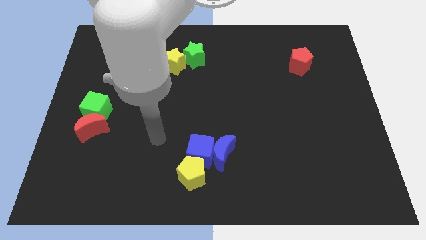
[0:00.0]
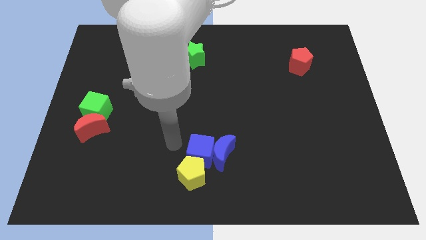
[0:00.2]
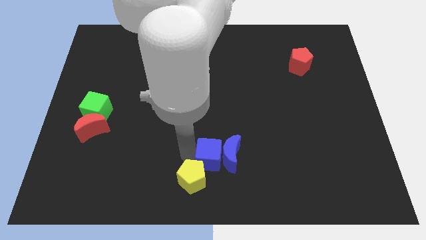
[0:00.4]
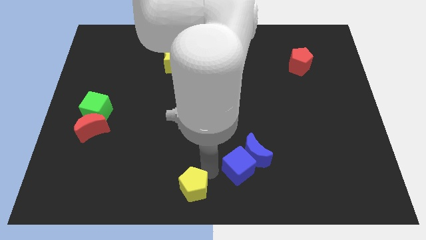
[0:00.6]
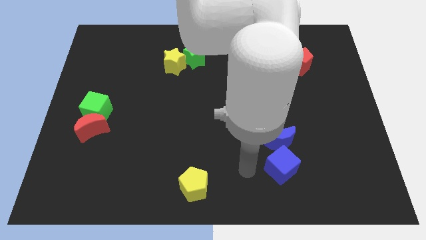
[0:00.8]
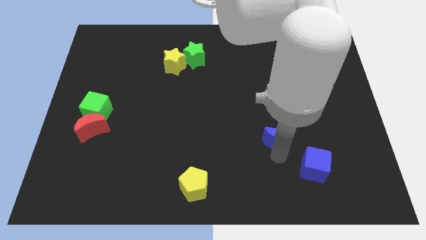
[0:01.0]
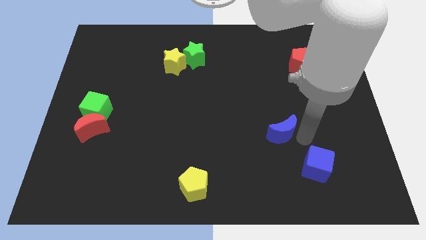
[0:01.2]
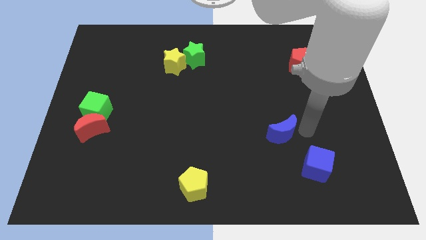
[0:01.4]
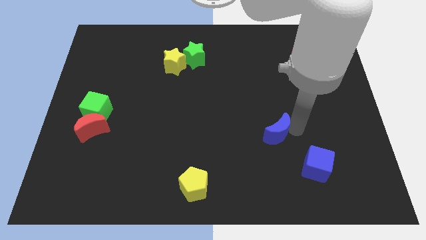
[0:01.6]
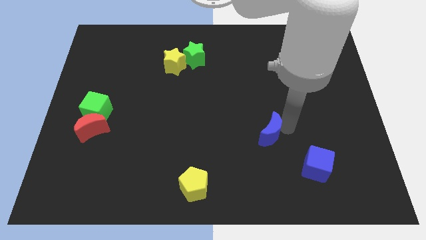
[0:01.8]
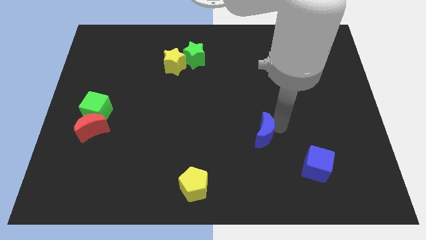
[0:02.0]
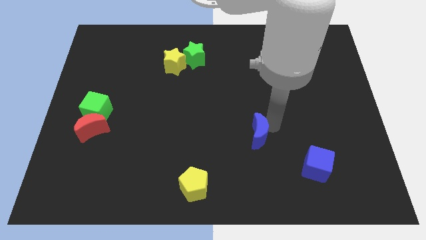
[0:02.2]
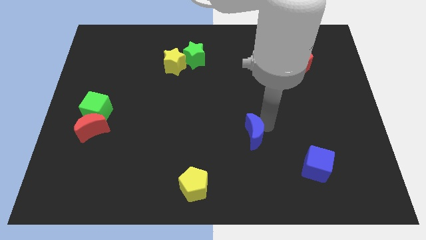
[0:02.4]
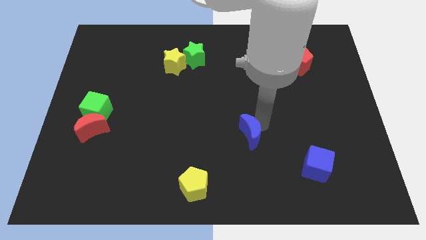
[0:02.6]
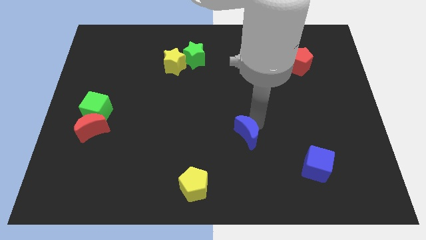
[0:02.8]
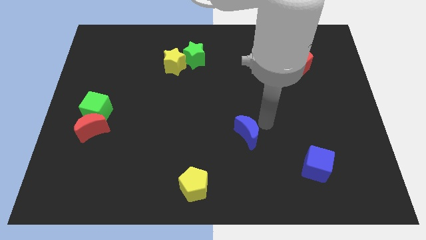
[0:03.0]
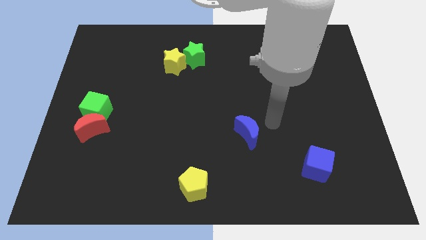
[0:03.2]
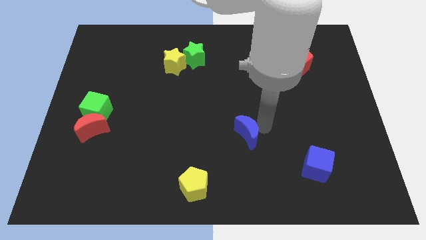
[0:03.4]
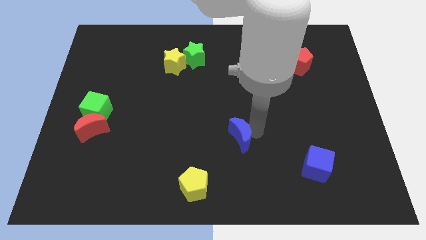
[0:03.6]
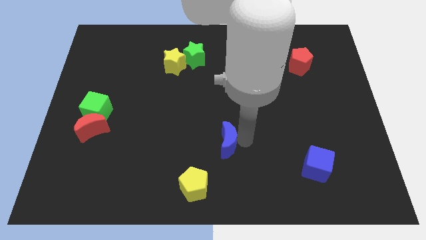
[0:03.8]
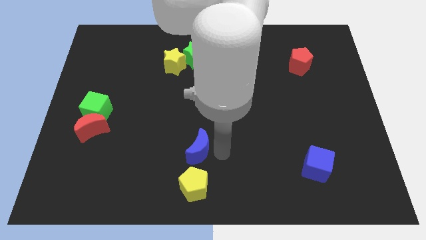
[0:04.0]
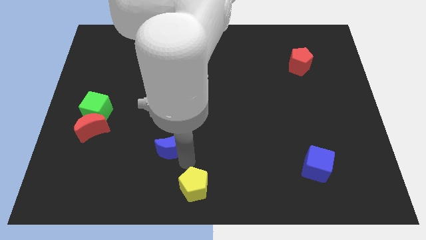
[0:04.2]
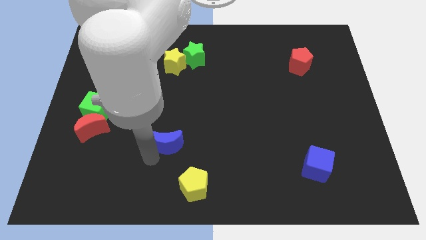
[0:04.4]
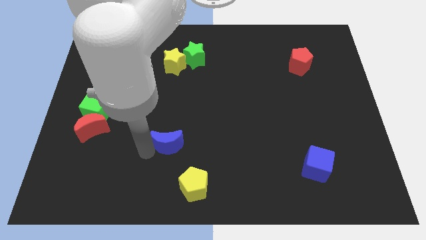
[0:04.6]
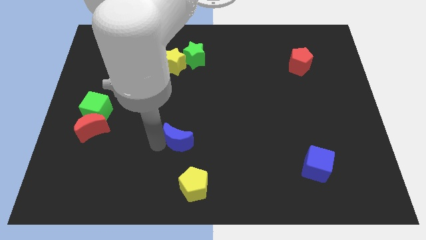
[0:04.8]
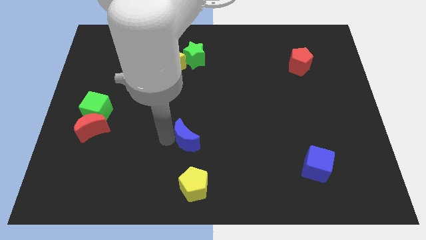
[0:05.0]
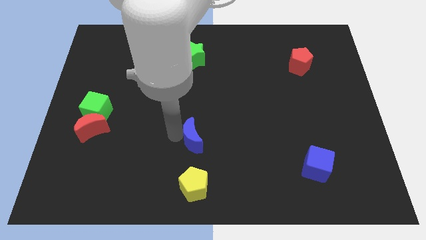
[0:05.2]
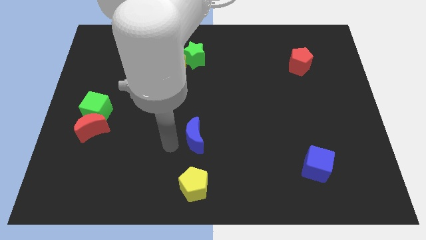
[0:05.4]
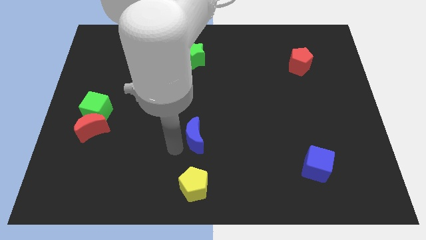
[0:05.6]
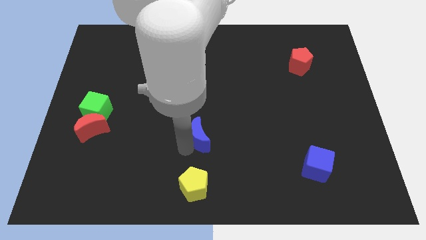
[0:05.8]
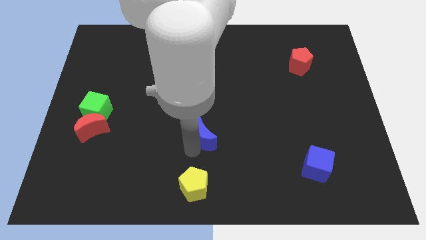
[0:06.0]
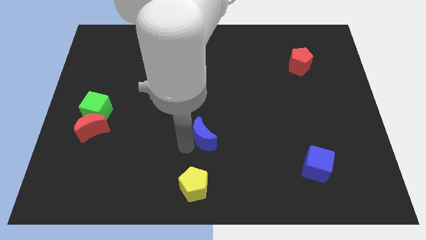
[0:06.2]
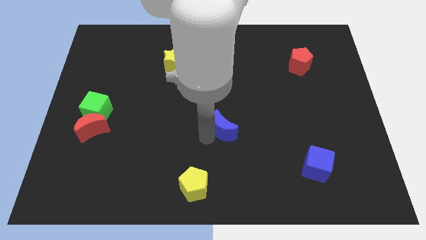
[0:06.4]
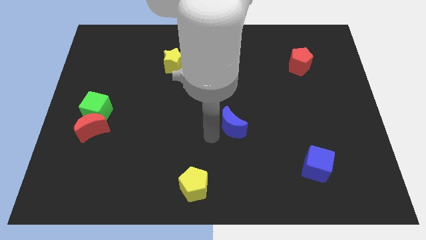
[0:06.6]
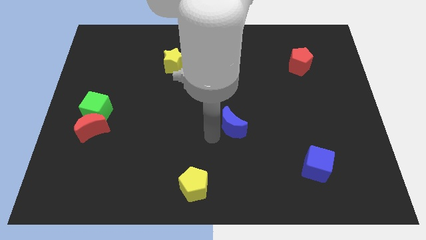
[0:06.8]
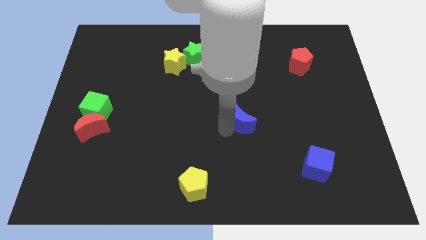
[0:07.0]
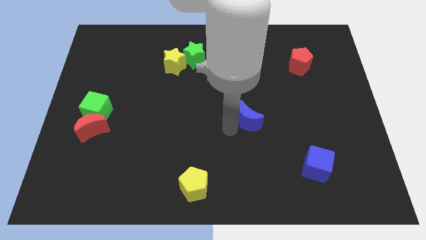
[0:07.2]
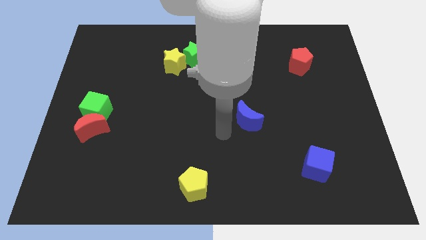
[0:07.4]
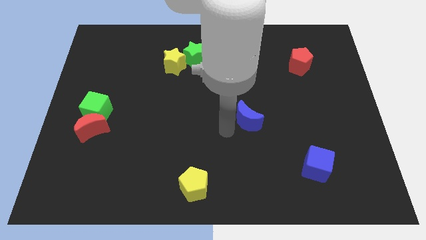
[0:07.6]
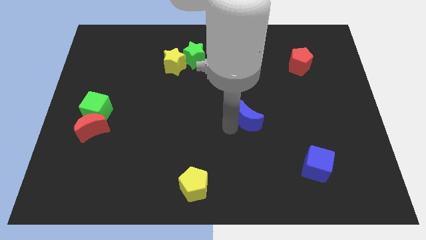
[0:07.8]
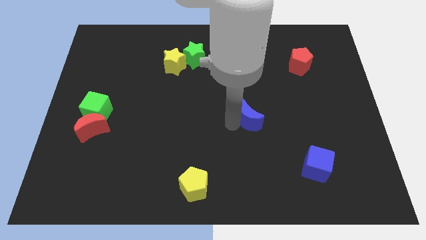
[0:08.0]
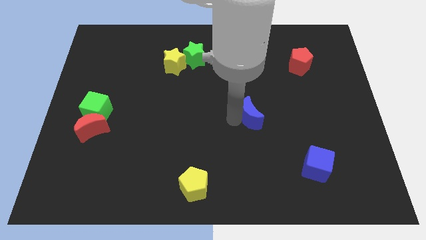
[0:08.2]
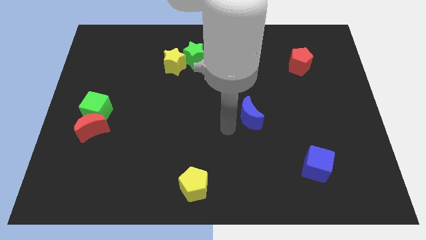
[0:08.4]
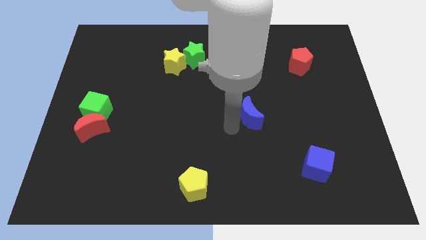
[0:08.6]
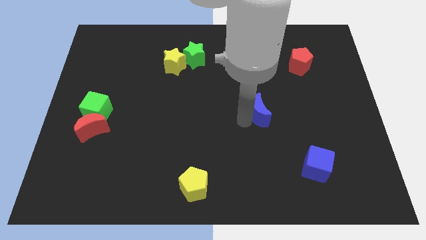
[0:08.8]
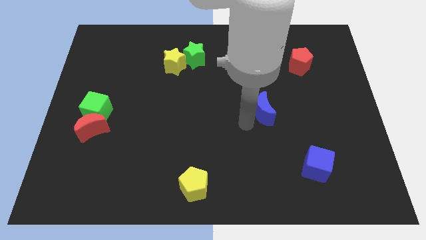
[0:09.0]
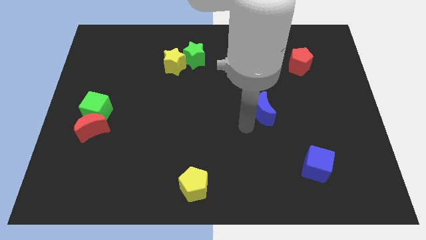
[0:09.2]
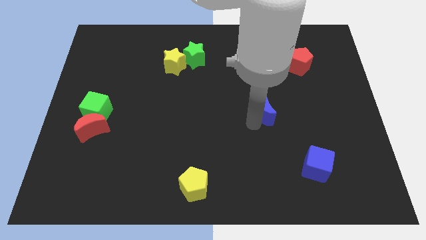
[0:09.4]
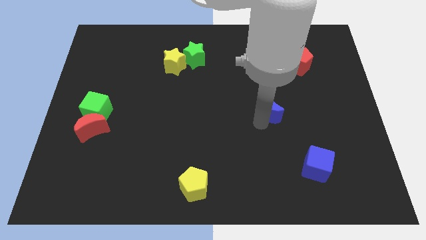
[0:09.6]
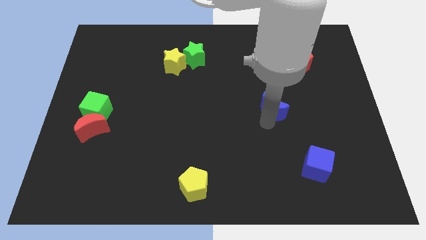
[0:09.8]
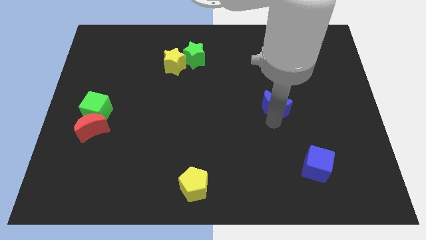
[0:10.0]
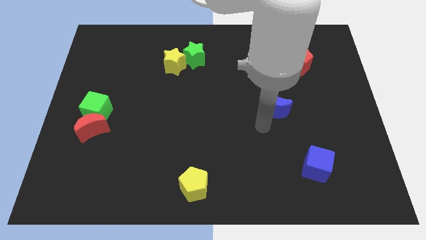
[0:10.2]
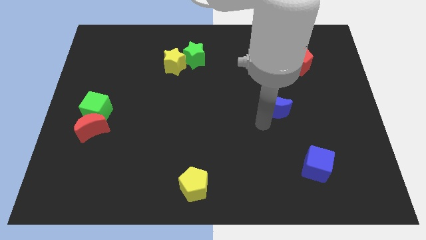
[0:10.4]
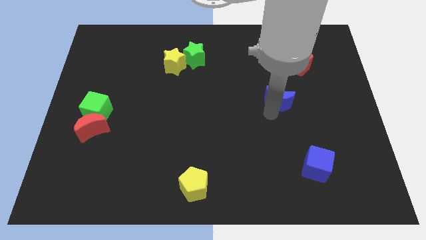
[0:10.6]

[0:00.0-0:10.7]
slide the blue moon upwards and right diagonally

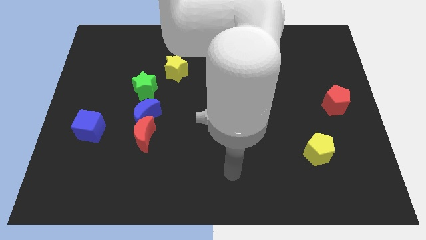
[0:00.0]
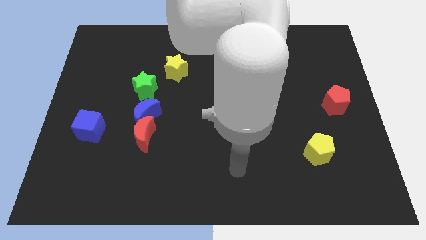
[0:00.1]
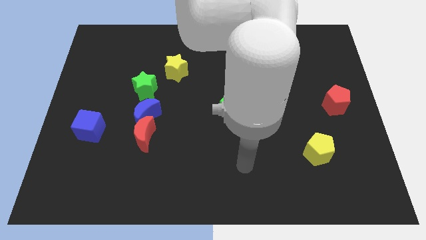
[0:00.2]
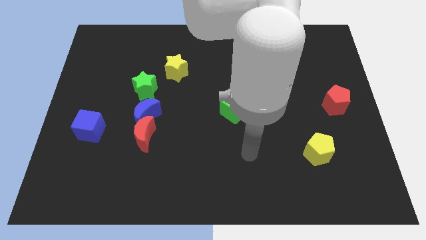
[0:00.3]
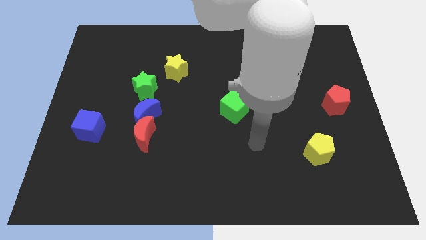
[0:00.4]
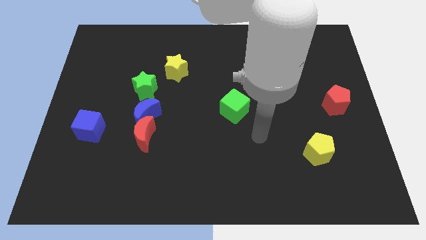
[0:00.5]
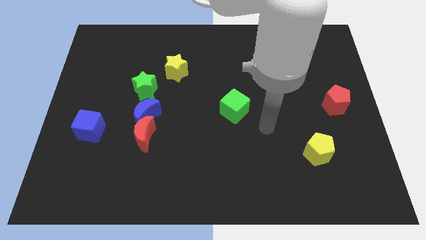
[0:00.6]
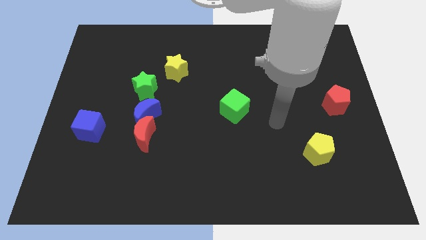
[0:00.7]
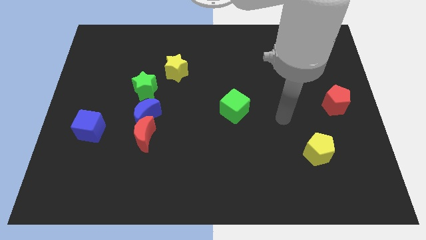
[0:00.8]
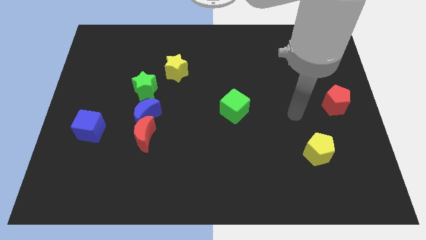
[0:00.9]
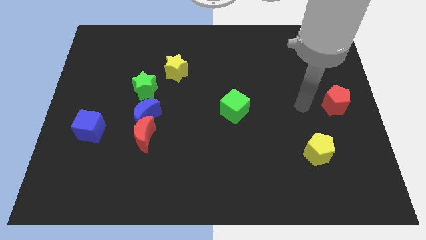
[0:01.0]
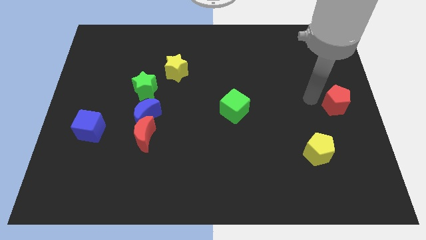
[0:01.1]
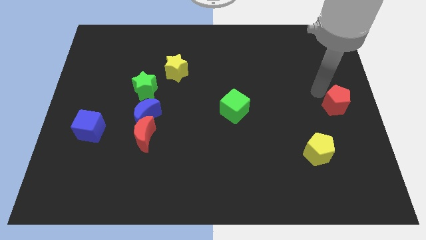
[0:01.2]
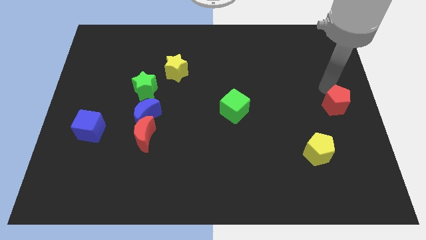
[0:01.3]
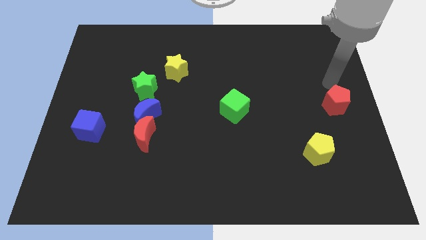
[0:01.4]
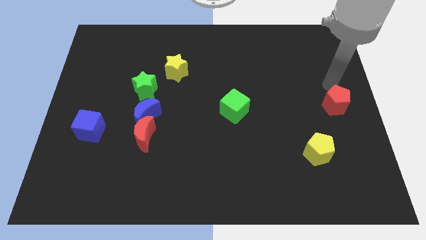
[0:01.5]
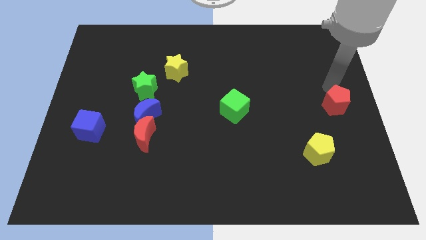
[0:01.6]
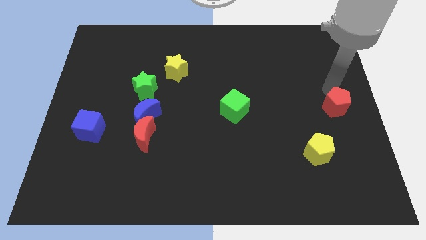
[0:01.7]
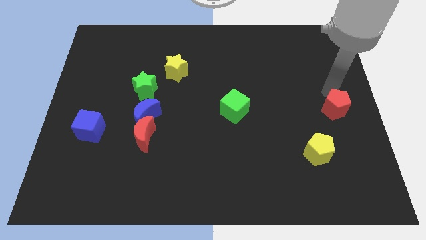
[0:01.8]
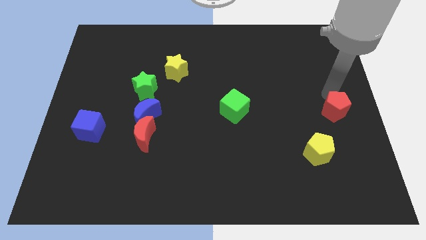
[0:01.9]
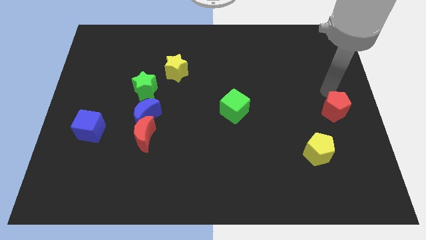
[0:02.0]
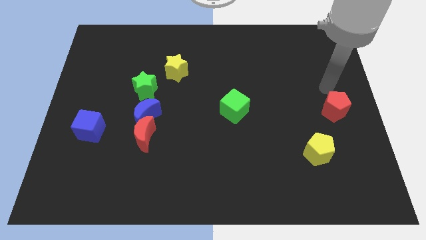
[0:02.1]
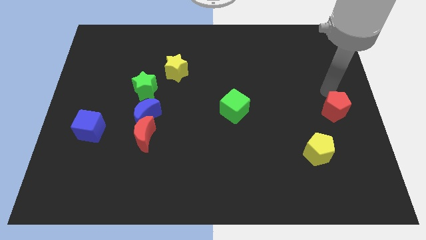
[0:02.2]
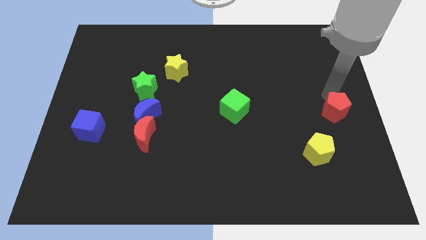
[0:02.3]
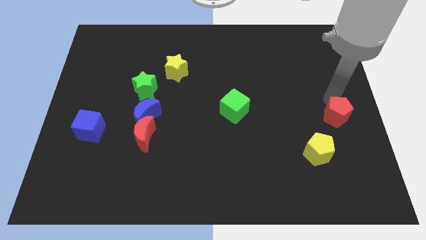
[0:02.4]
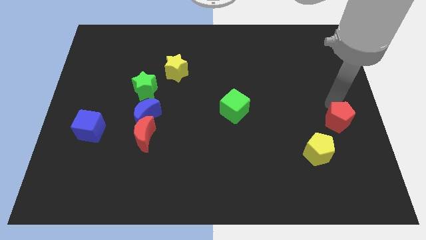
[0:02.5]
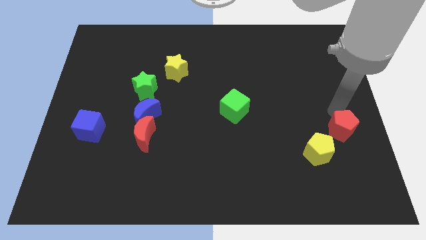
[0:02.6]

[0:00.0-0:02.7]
move the red pentagon downwards slightly
